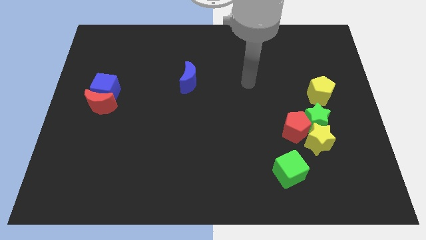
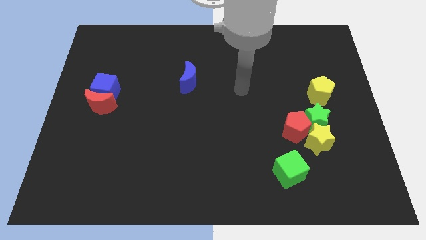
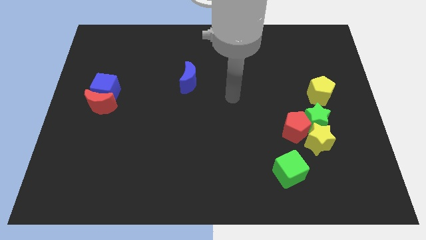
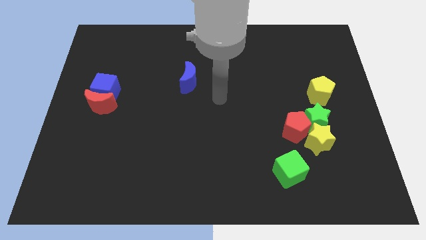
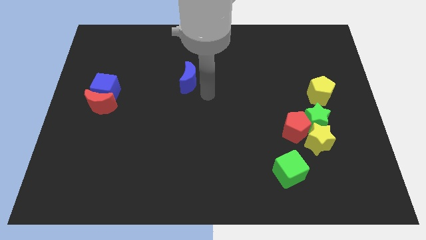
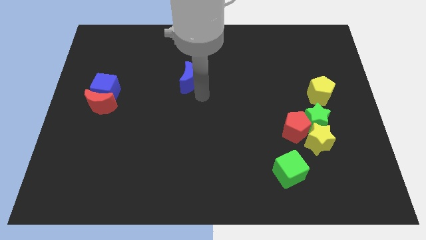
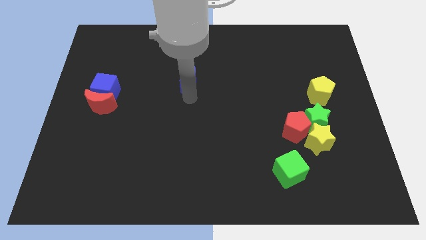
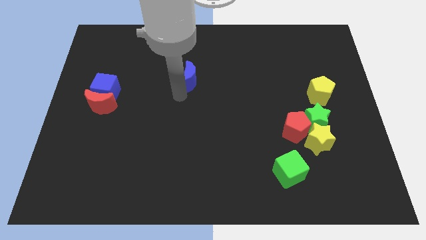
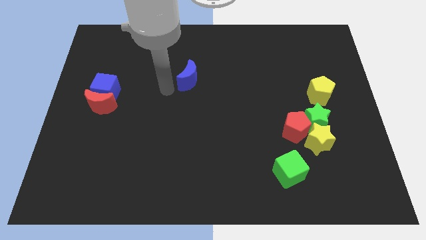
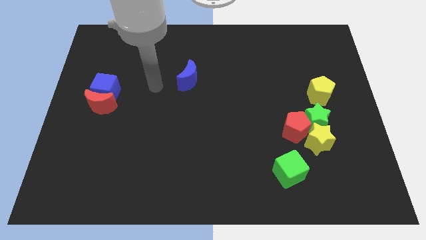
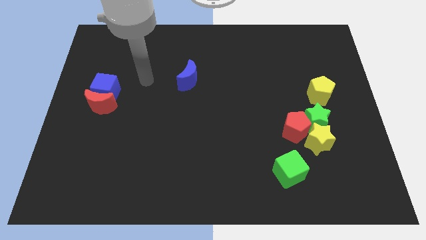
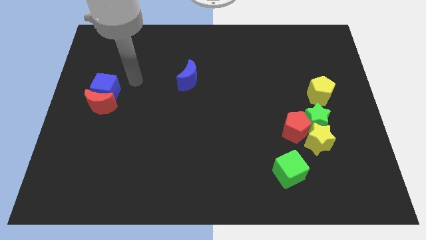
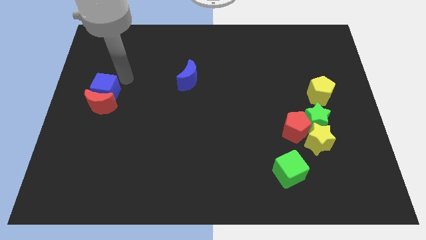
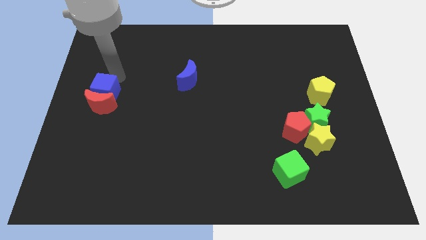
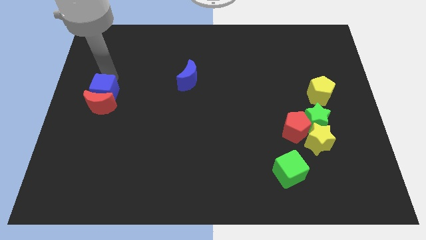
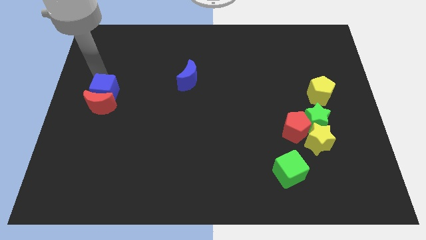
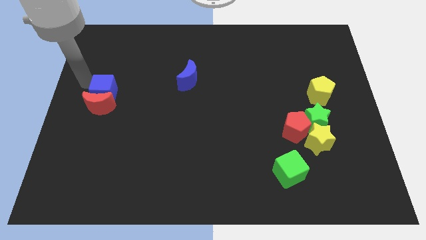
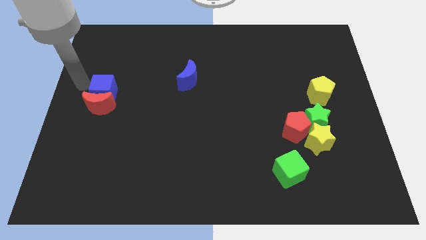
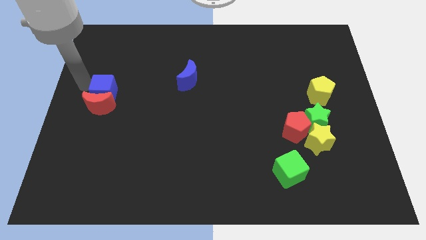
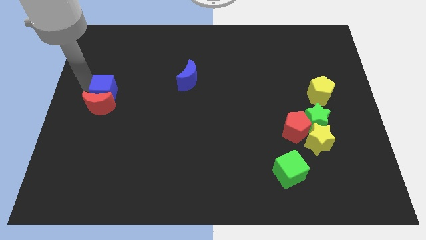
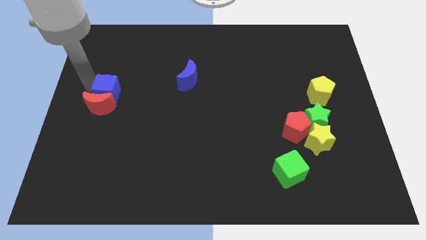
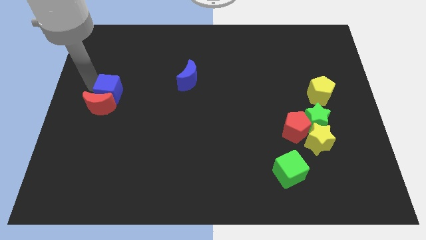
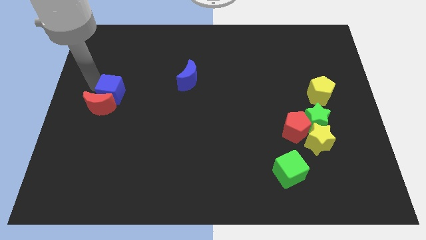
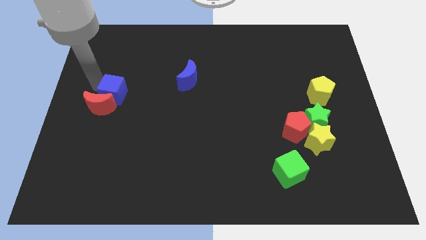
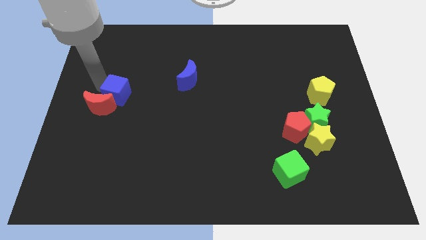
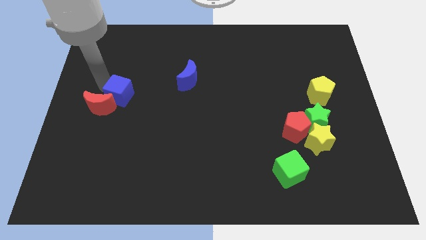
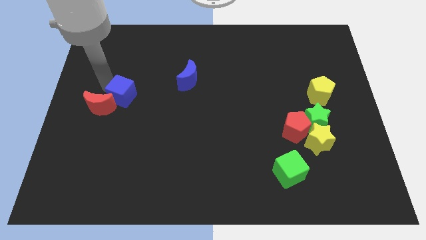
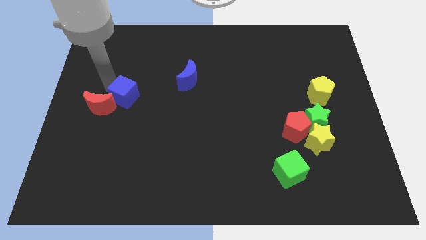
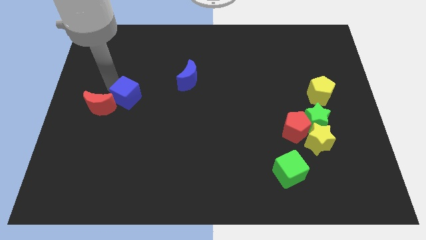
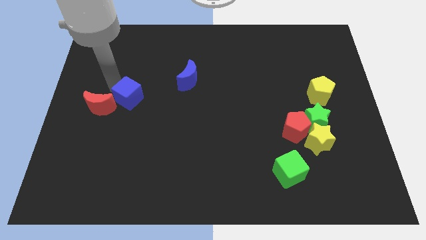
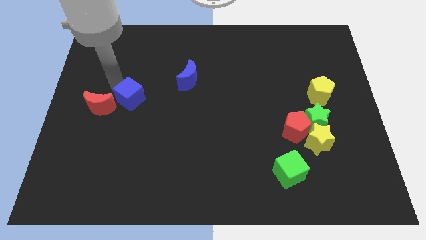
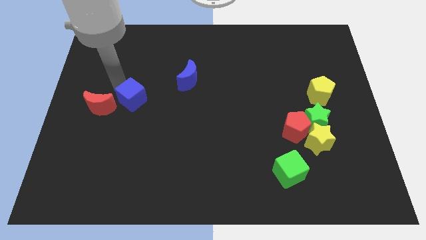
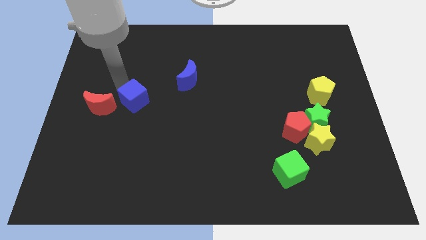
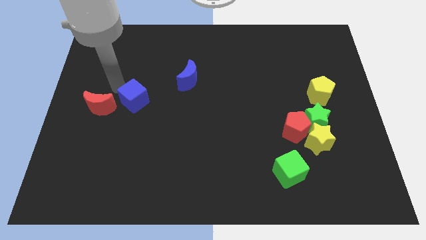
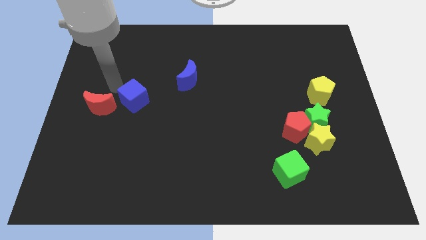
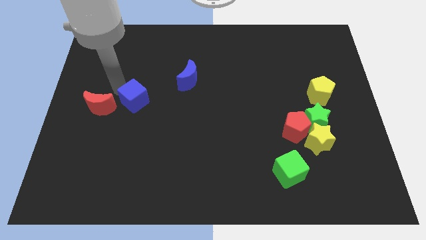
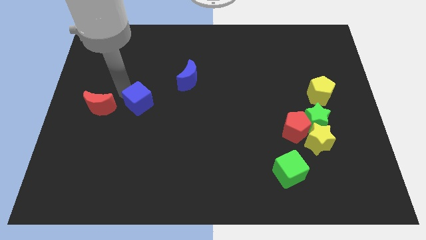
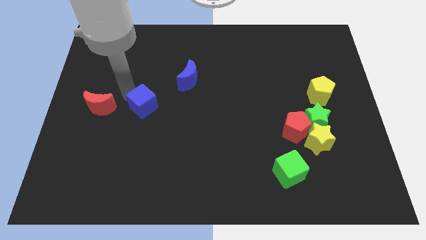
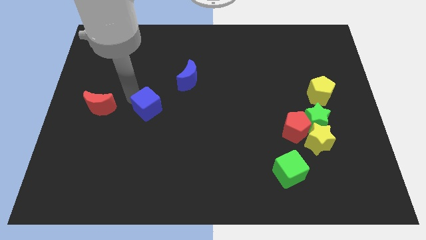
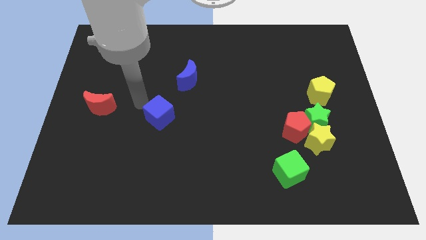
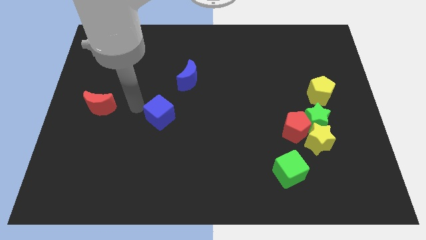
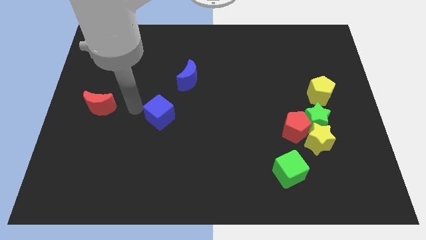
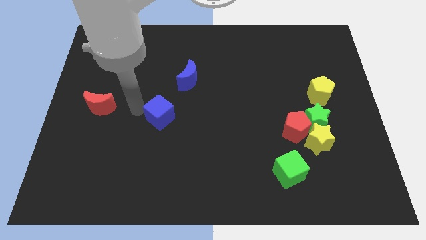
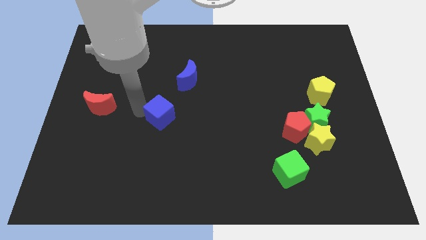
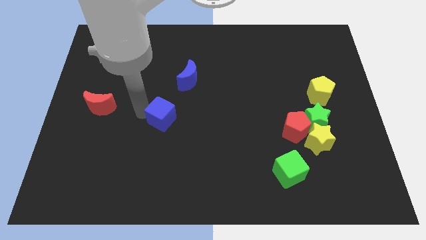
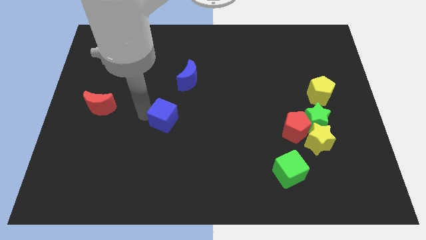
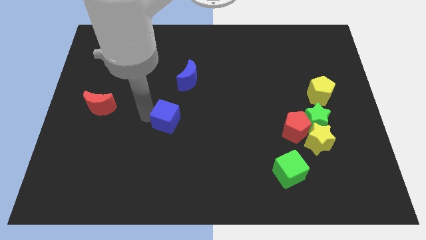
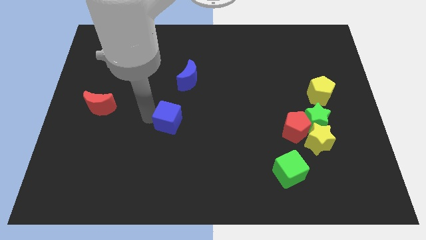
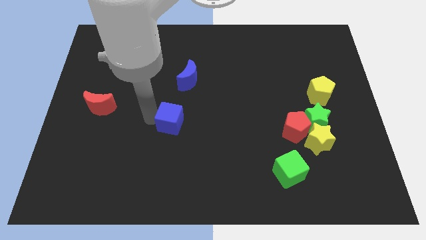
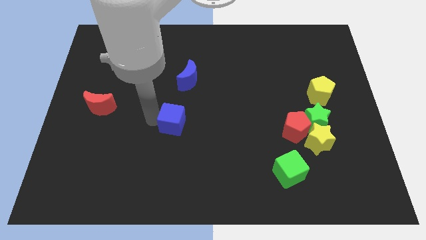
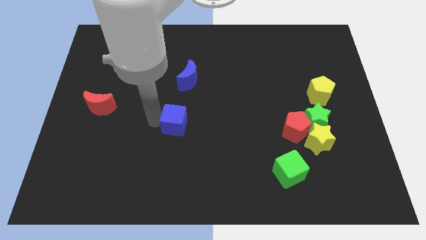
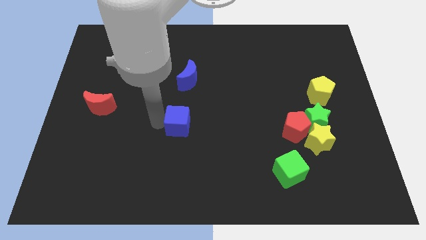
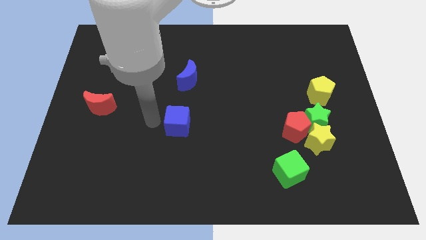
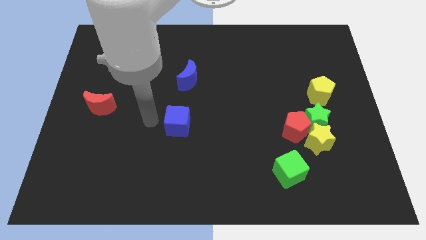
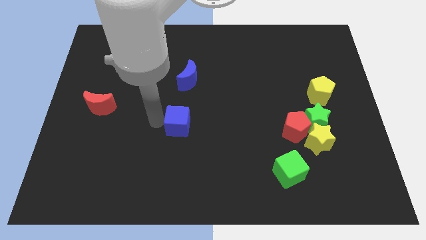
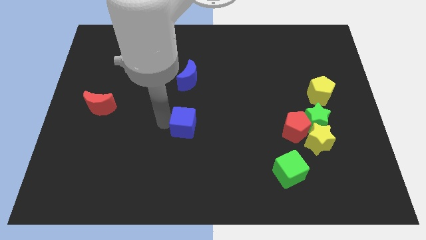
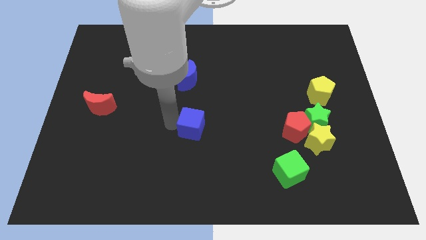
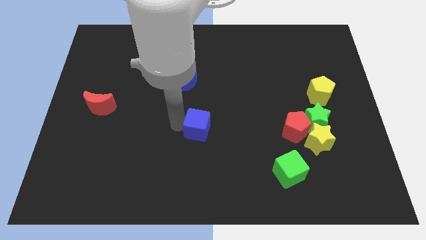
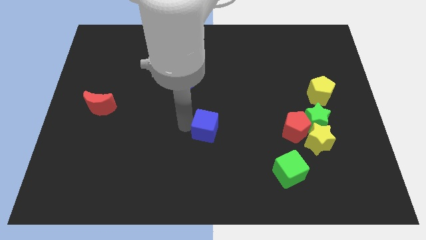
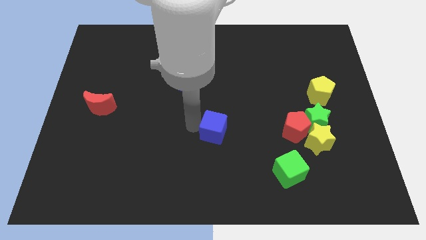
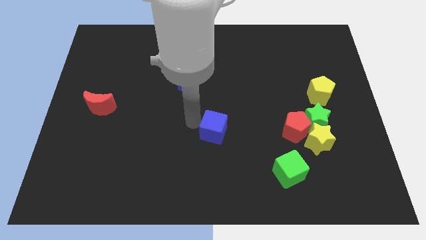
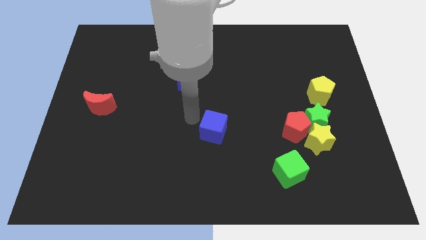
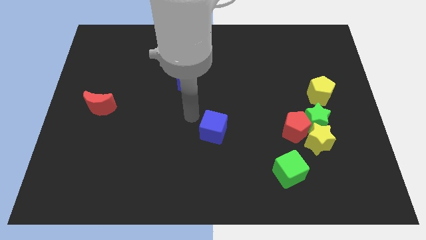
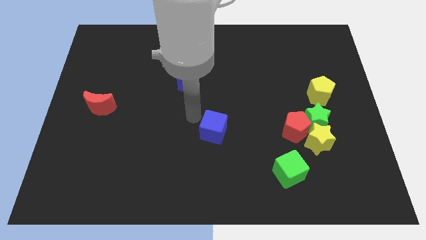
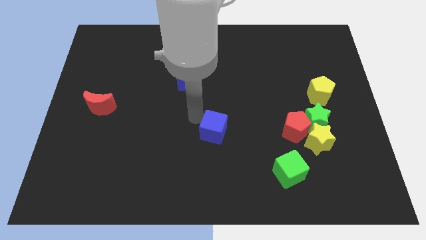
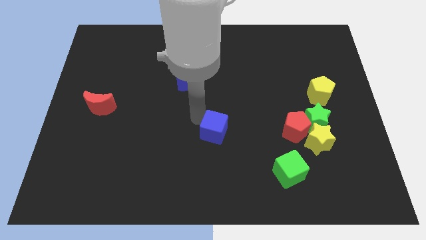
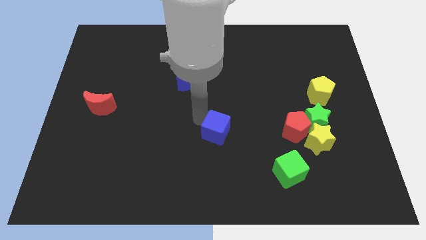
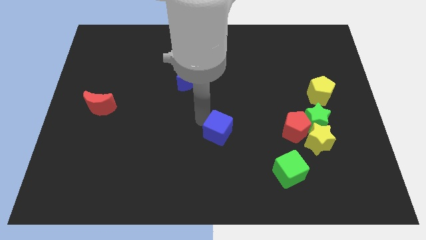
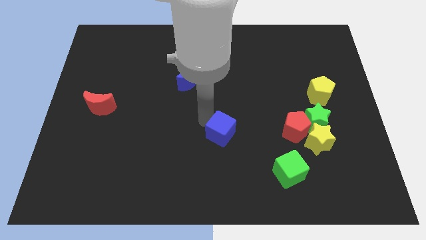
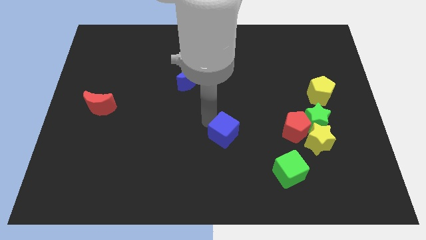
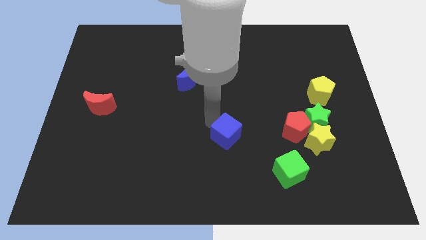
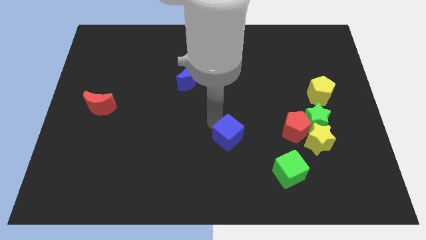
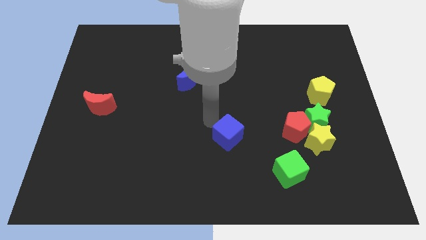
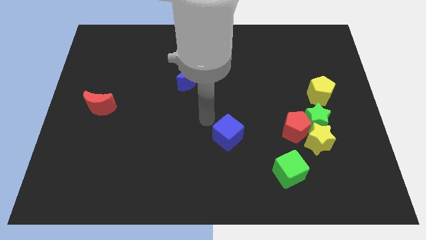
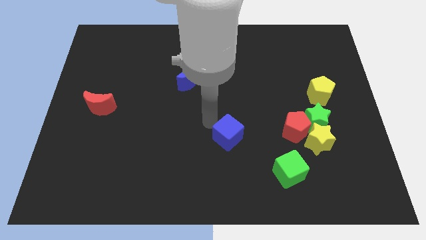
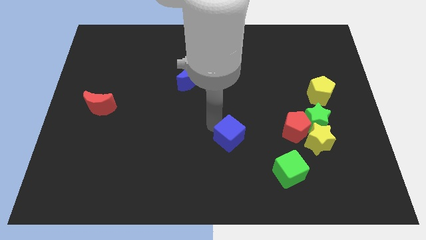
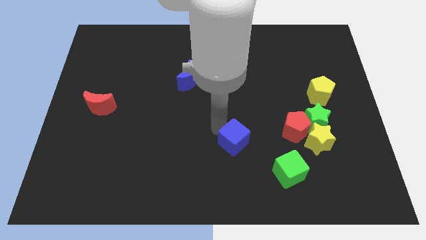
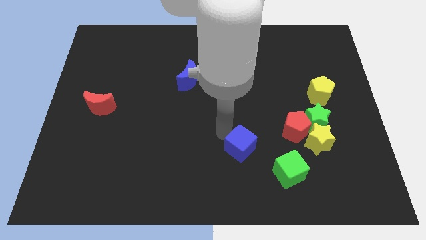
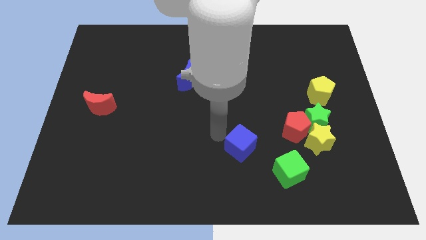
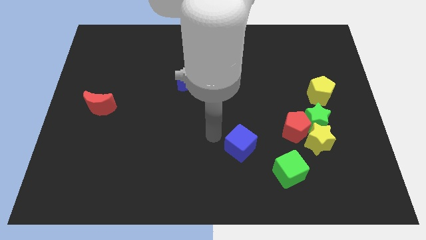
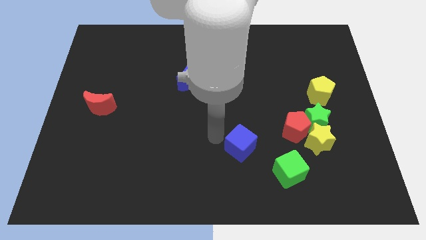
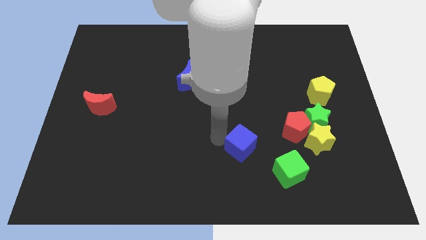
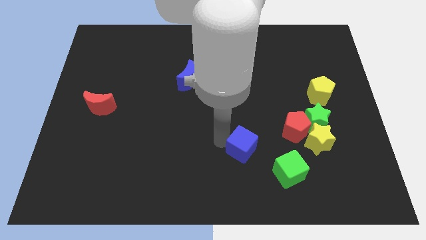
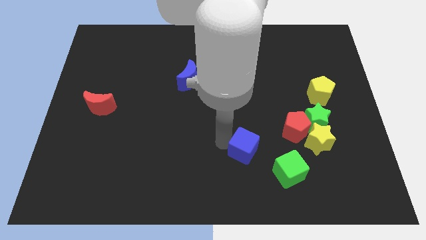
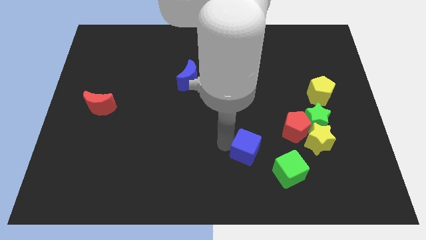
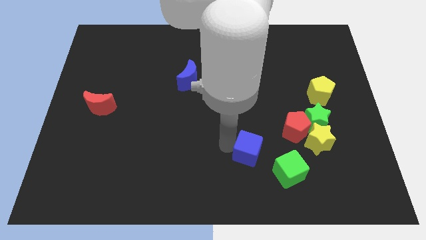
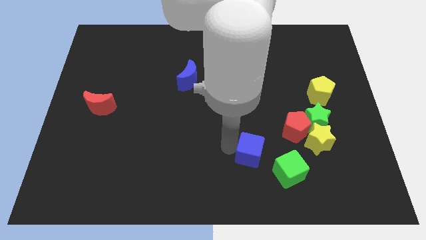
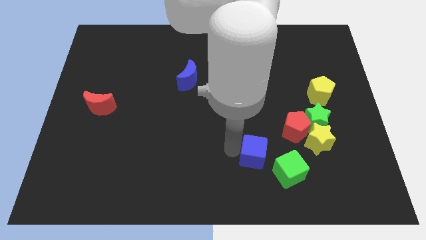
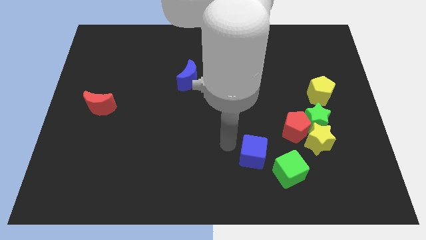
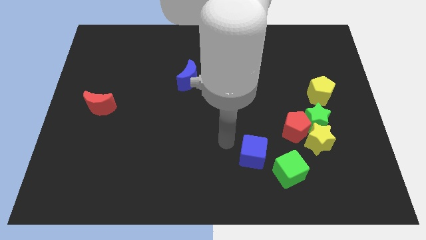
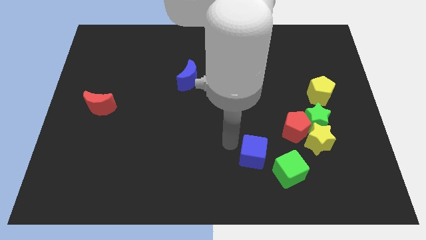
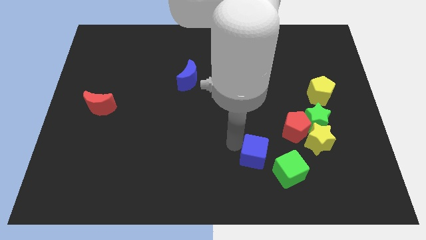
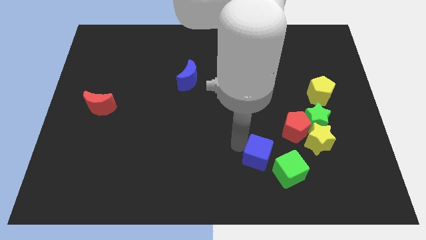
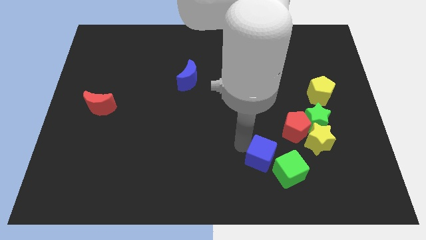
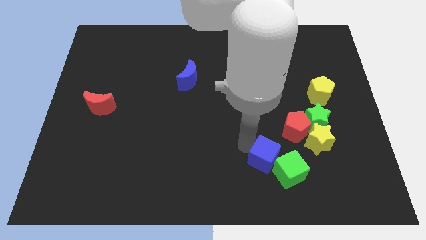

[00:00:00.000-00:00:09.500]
move the blue cube towards the green cube
